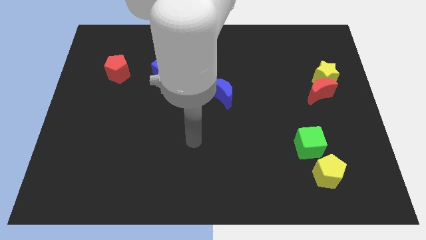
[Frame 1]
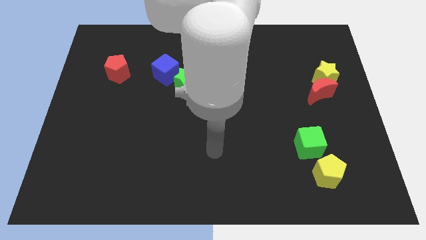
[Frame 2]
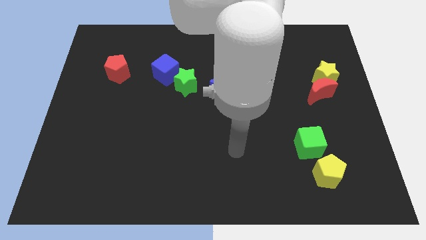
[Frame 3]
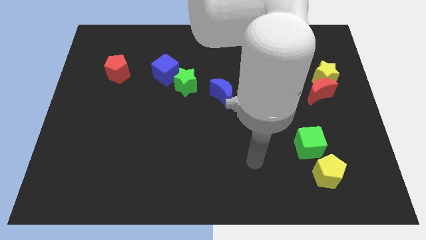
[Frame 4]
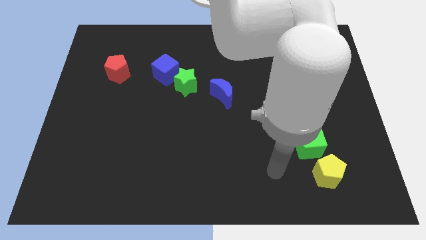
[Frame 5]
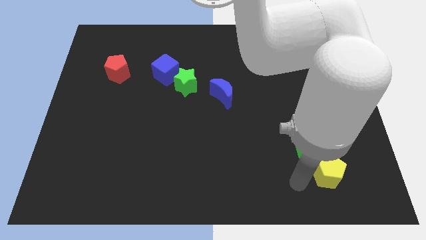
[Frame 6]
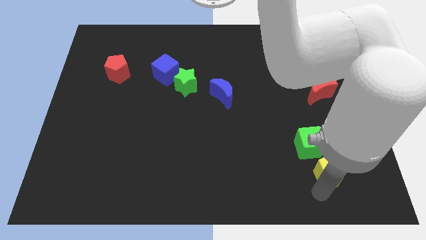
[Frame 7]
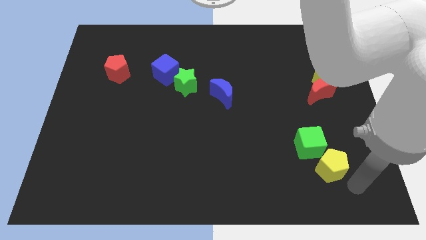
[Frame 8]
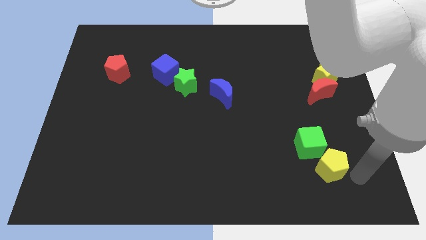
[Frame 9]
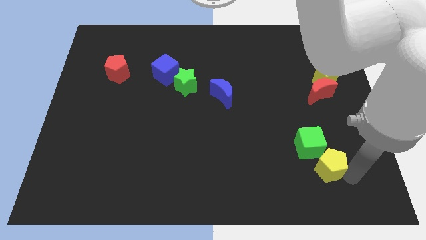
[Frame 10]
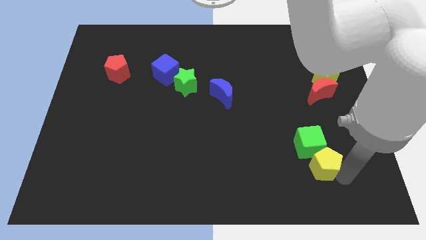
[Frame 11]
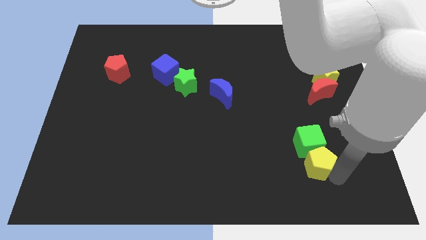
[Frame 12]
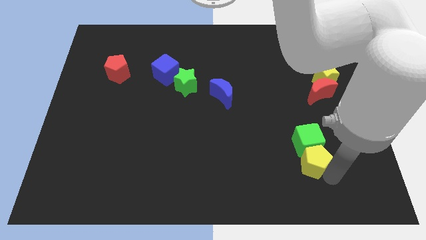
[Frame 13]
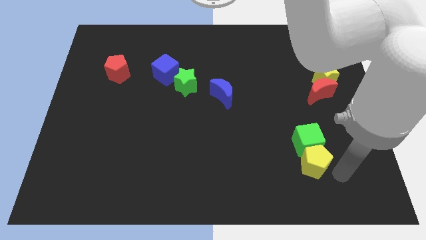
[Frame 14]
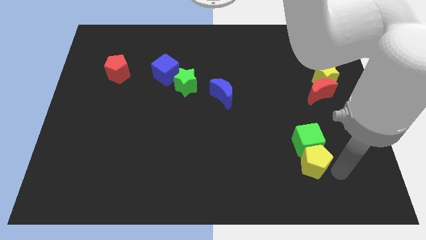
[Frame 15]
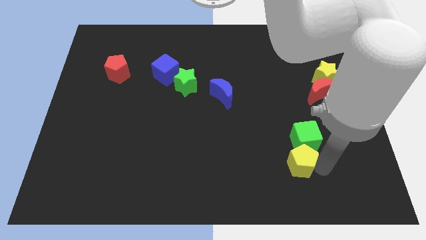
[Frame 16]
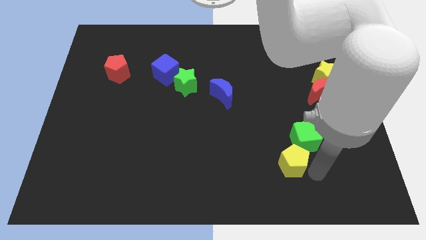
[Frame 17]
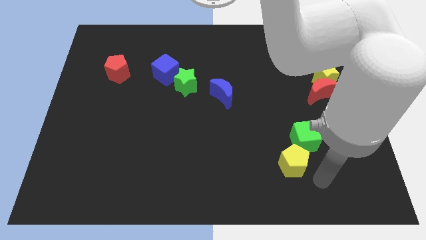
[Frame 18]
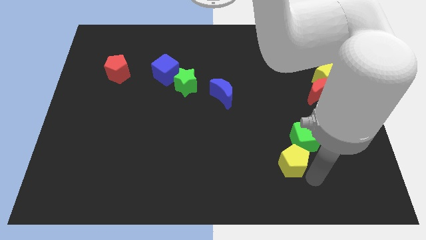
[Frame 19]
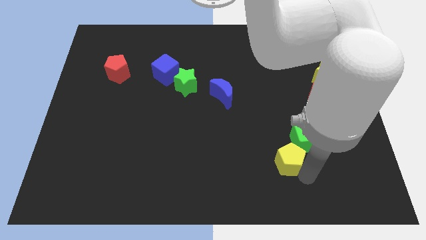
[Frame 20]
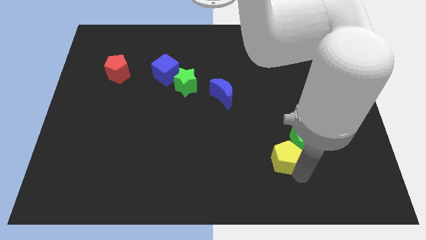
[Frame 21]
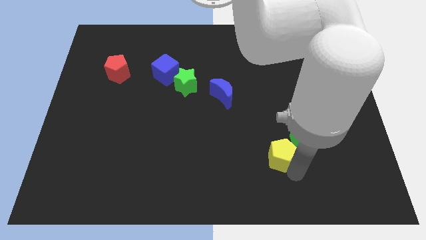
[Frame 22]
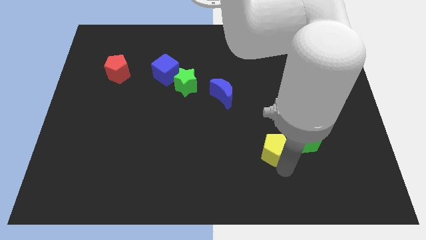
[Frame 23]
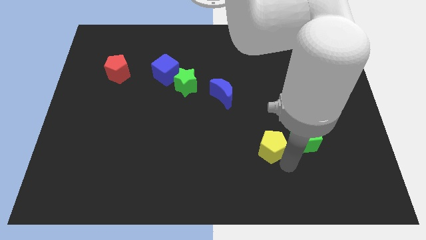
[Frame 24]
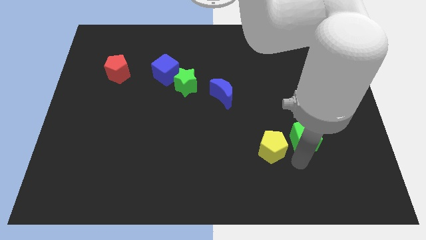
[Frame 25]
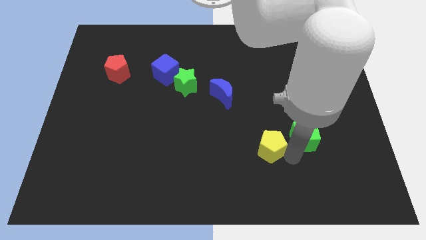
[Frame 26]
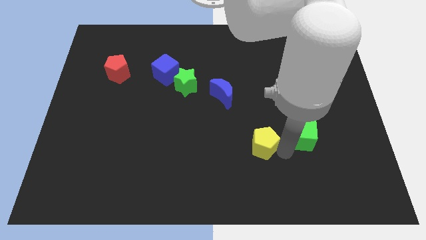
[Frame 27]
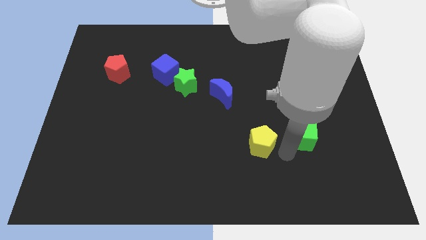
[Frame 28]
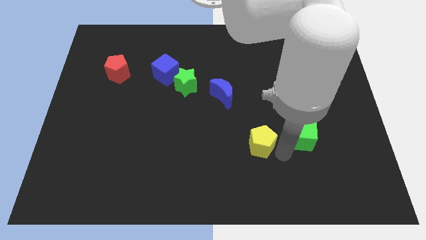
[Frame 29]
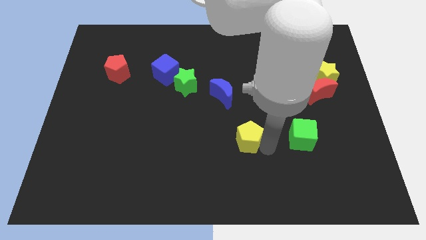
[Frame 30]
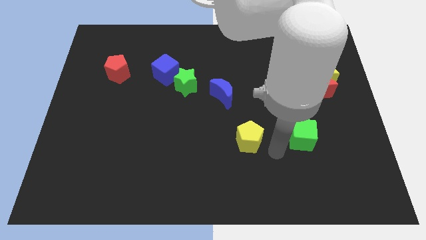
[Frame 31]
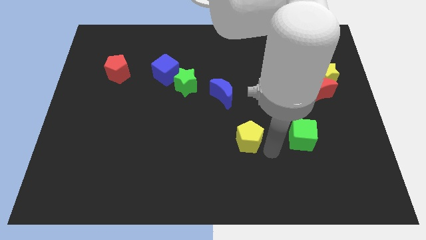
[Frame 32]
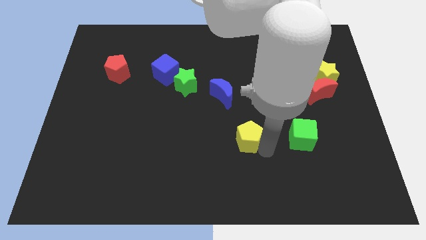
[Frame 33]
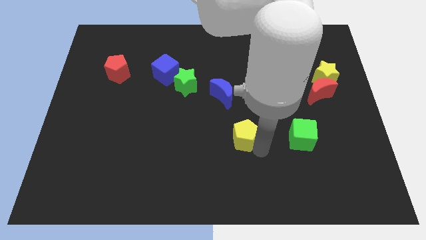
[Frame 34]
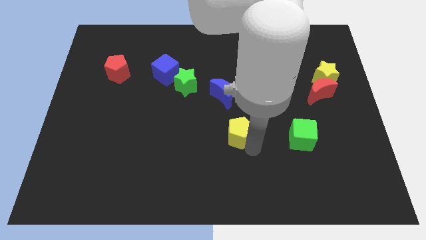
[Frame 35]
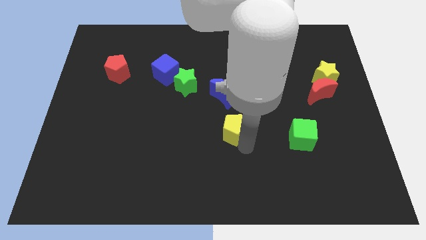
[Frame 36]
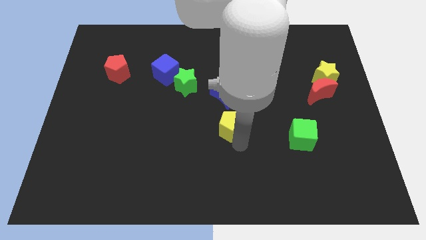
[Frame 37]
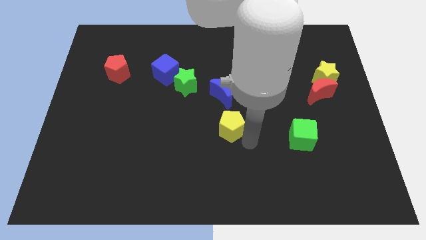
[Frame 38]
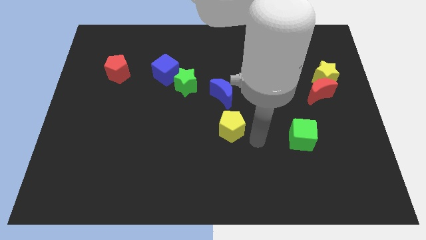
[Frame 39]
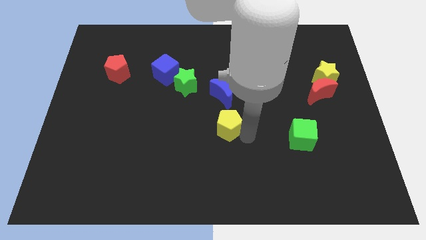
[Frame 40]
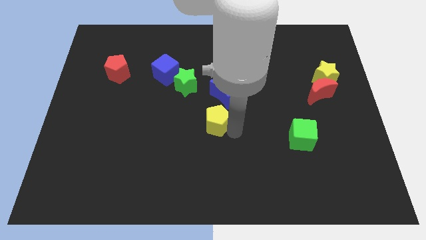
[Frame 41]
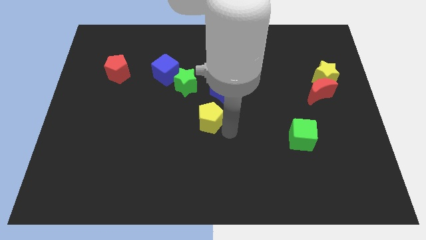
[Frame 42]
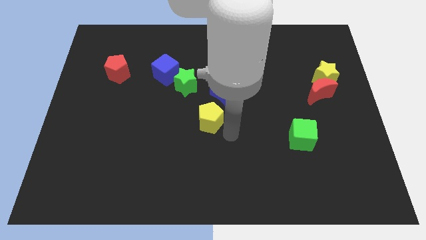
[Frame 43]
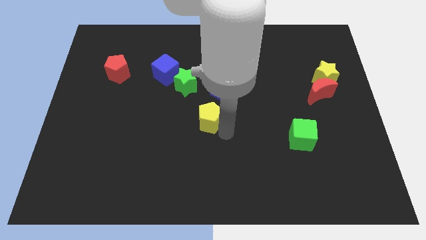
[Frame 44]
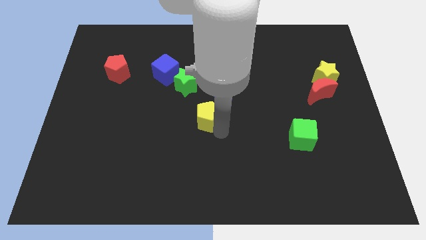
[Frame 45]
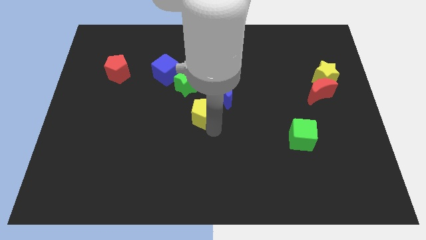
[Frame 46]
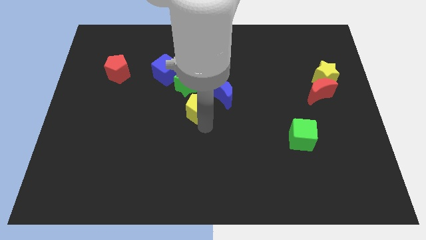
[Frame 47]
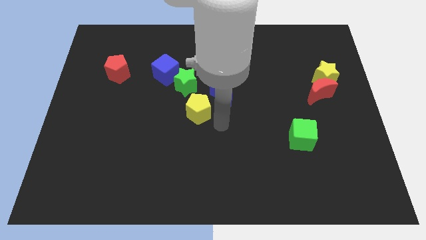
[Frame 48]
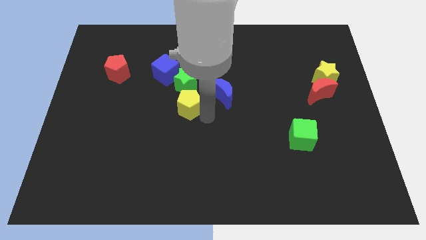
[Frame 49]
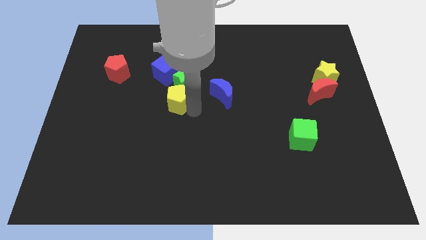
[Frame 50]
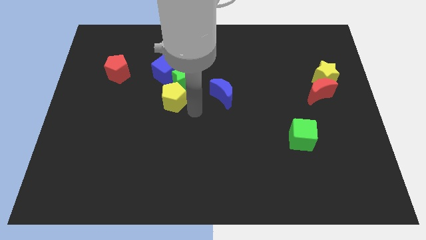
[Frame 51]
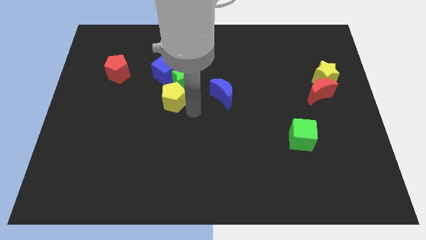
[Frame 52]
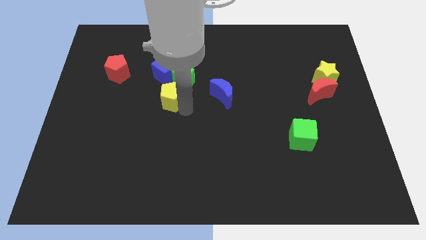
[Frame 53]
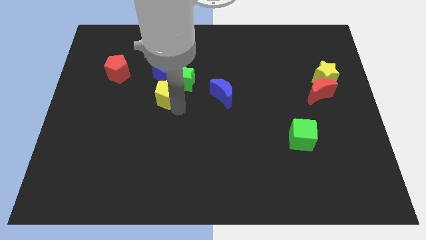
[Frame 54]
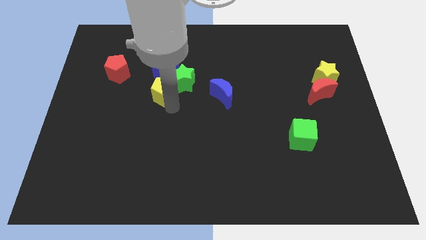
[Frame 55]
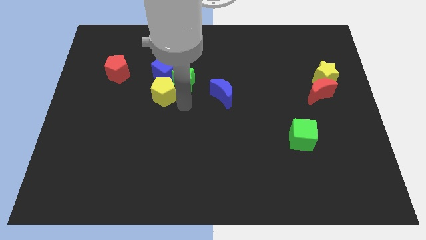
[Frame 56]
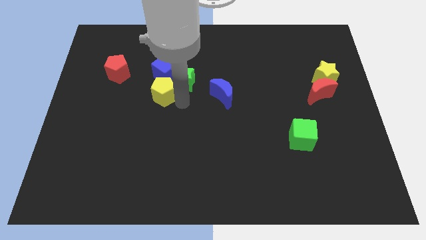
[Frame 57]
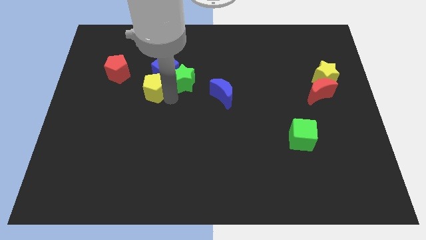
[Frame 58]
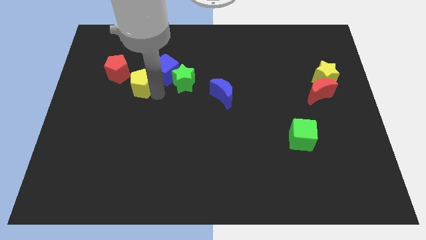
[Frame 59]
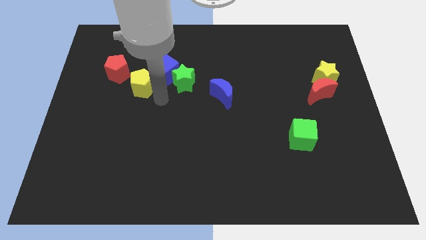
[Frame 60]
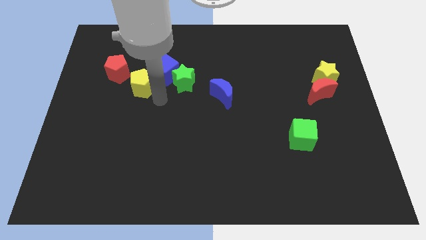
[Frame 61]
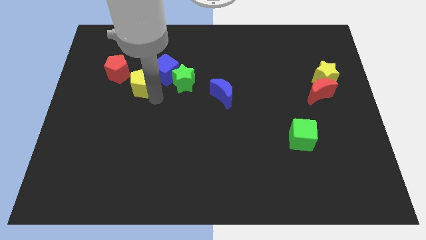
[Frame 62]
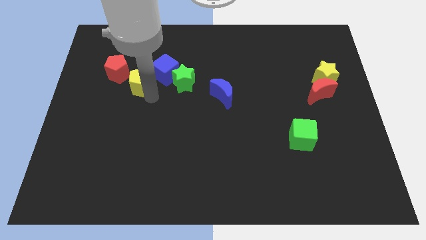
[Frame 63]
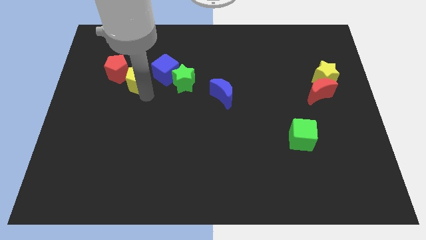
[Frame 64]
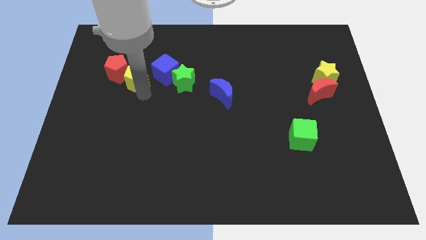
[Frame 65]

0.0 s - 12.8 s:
move the yellow pentagon next to the red pentagon
